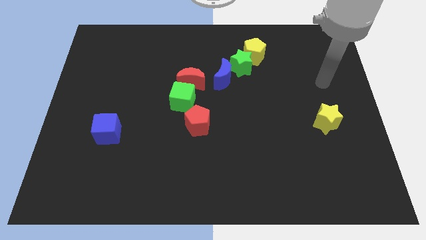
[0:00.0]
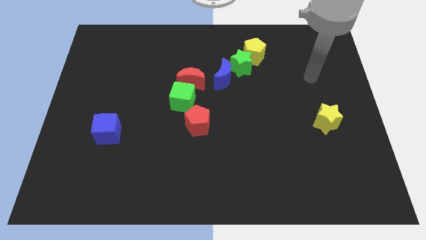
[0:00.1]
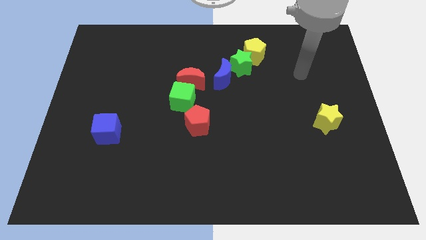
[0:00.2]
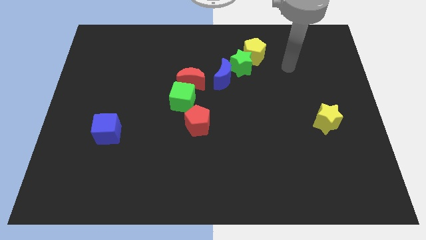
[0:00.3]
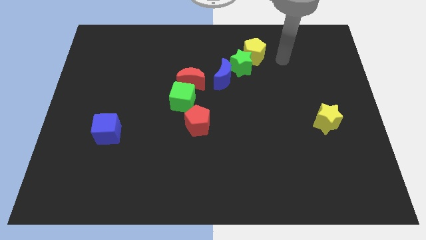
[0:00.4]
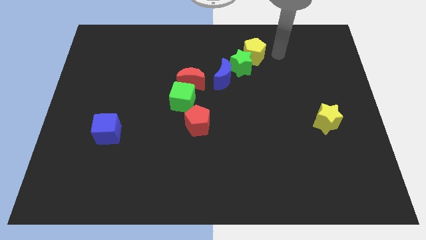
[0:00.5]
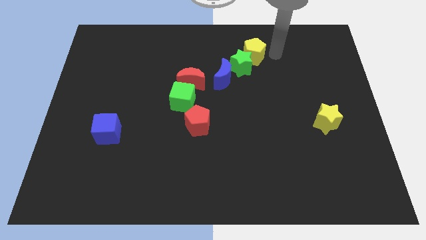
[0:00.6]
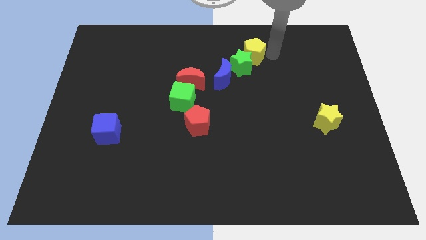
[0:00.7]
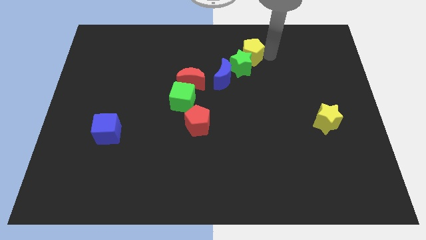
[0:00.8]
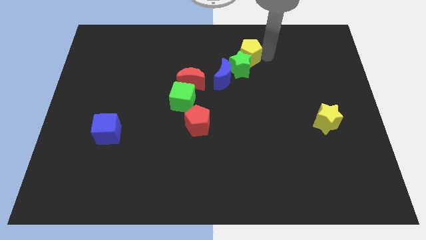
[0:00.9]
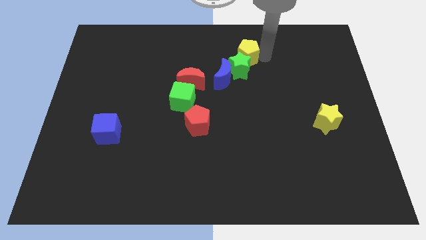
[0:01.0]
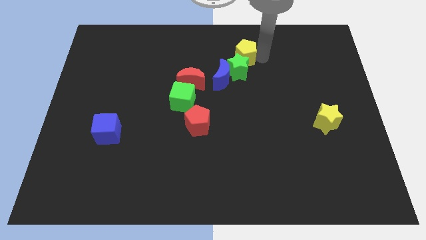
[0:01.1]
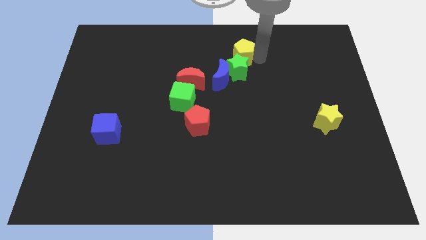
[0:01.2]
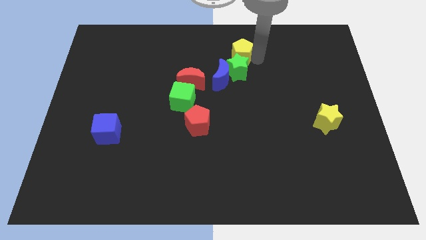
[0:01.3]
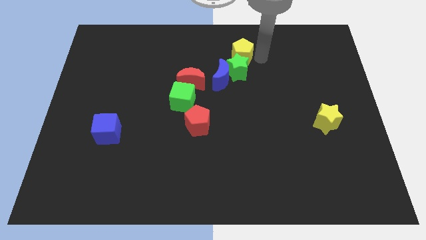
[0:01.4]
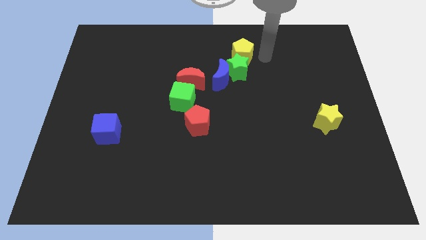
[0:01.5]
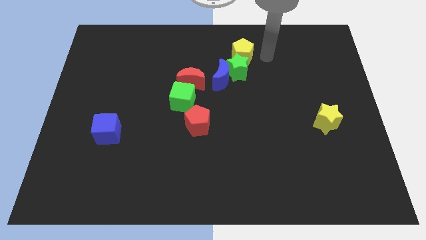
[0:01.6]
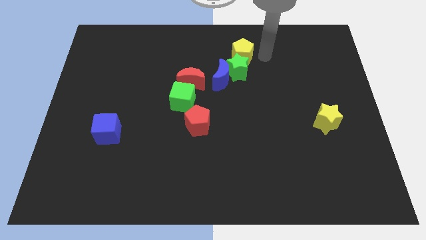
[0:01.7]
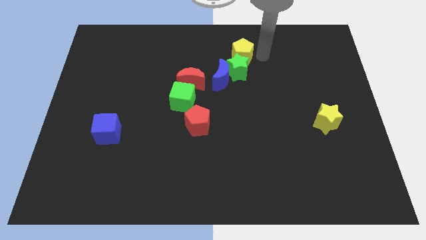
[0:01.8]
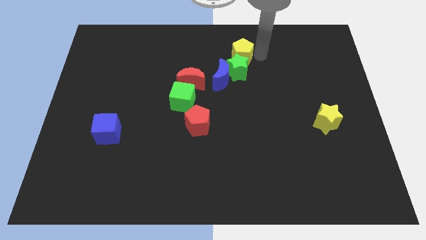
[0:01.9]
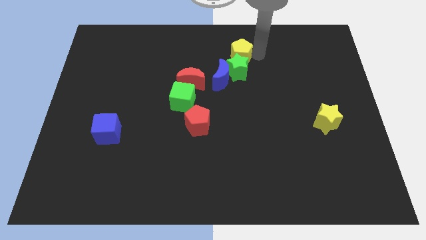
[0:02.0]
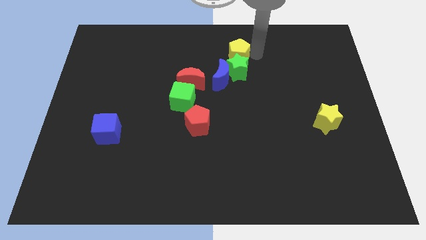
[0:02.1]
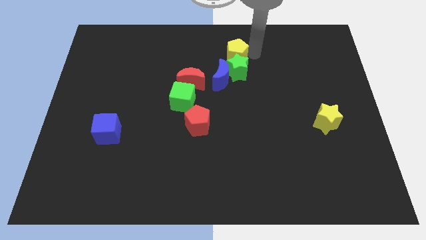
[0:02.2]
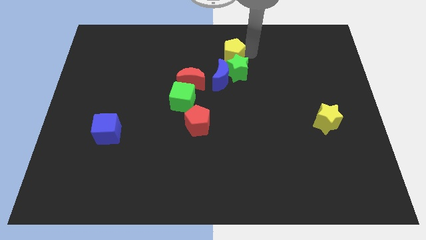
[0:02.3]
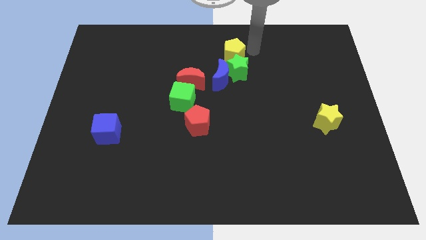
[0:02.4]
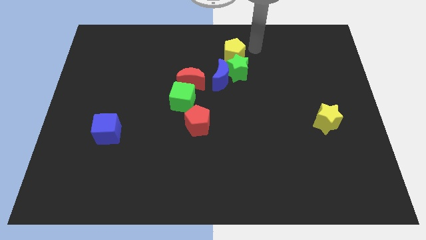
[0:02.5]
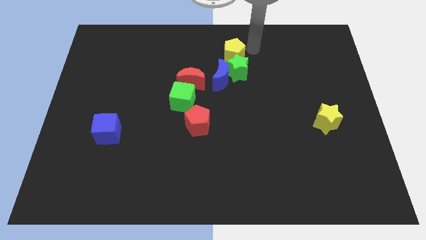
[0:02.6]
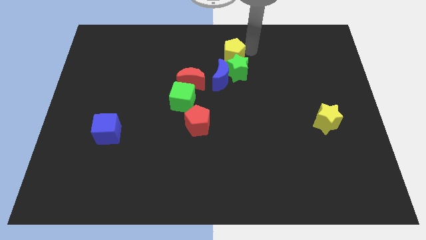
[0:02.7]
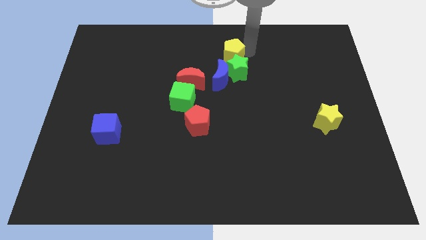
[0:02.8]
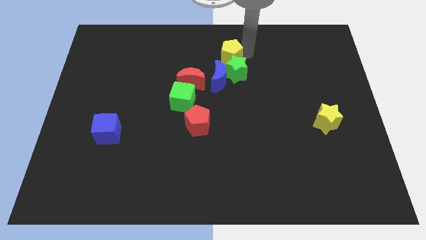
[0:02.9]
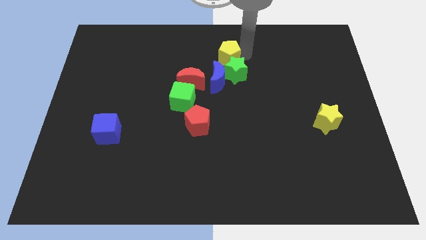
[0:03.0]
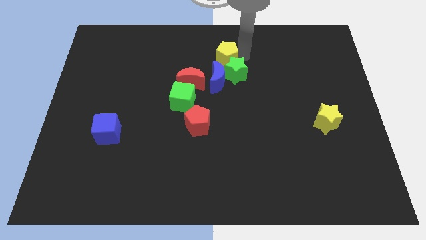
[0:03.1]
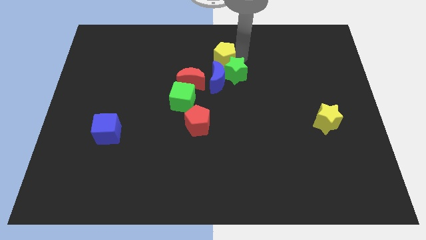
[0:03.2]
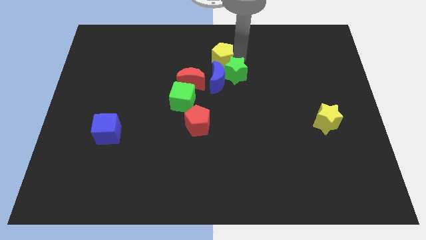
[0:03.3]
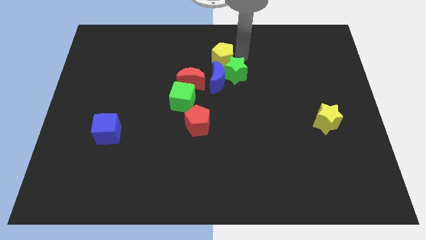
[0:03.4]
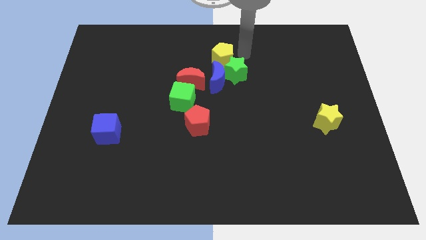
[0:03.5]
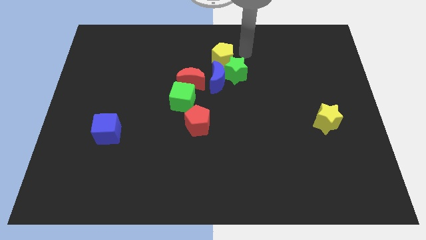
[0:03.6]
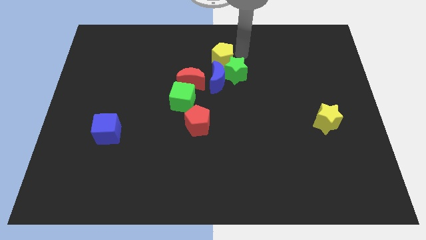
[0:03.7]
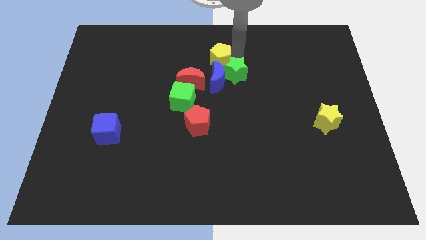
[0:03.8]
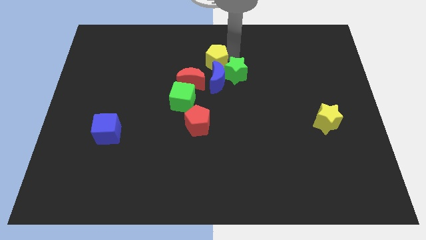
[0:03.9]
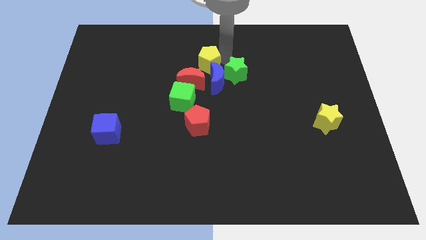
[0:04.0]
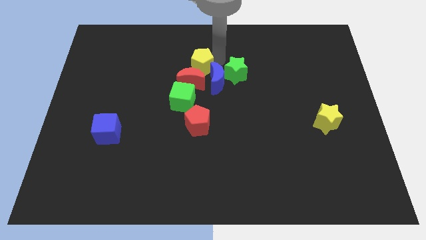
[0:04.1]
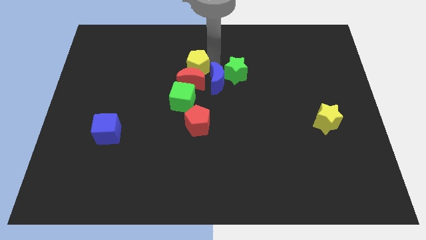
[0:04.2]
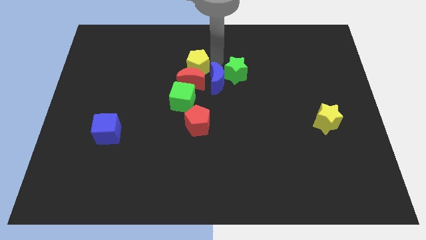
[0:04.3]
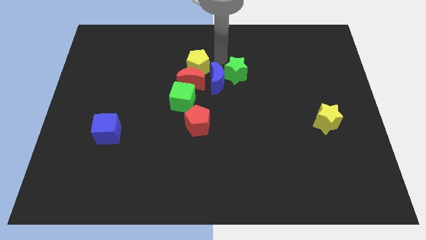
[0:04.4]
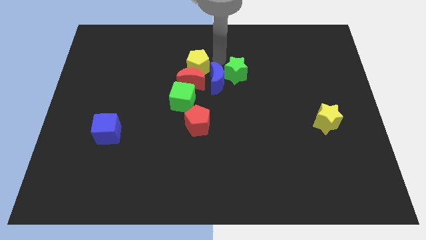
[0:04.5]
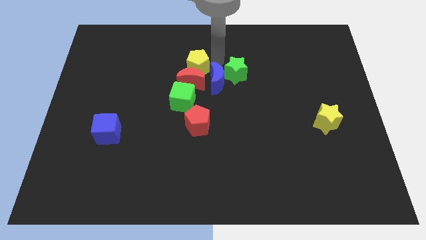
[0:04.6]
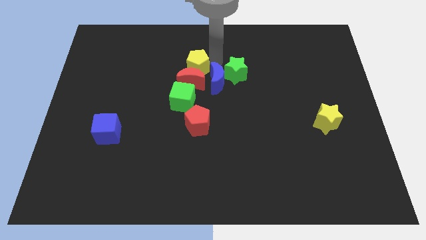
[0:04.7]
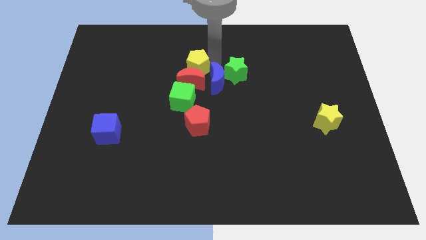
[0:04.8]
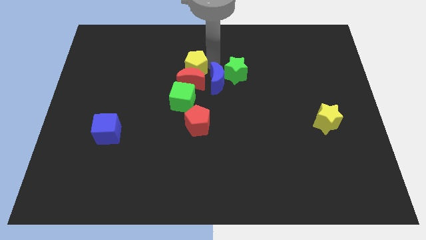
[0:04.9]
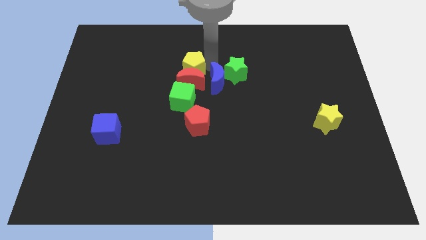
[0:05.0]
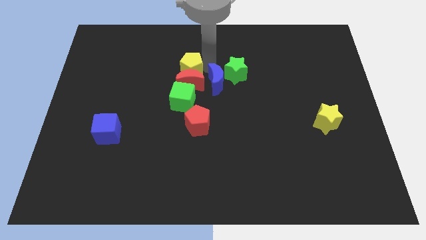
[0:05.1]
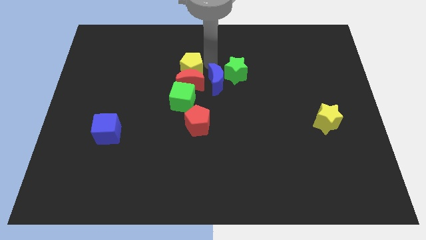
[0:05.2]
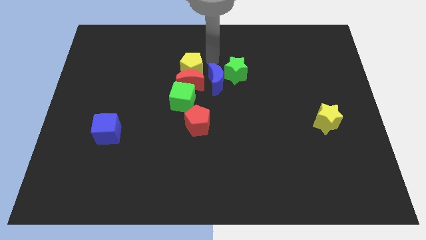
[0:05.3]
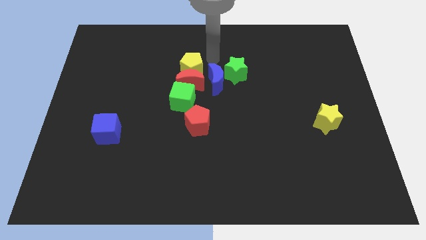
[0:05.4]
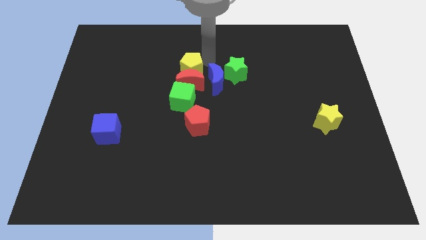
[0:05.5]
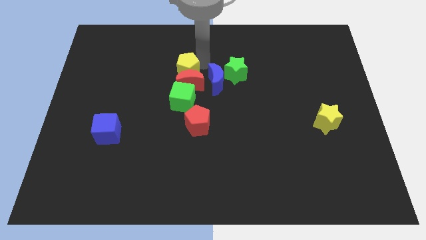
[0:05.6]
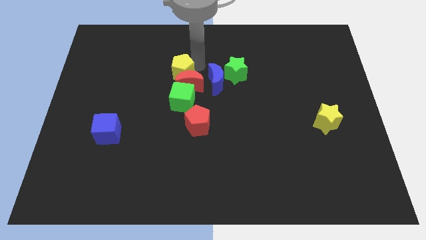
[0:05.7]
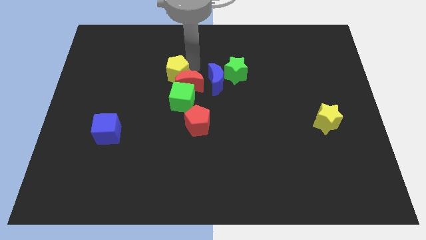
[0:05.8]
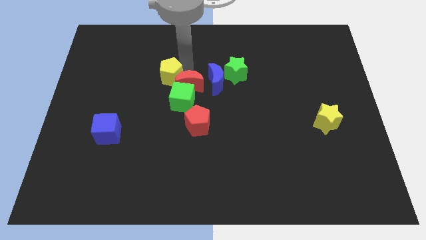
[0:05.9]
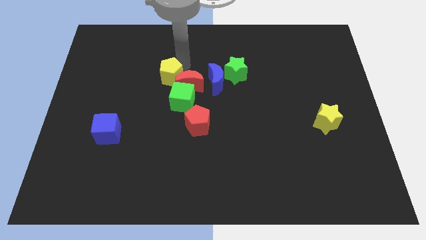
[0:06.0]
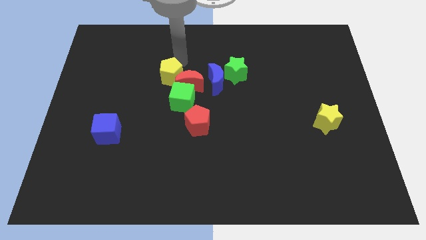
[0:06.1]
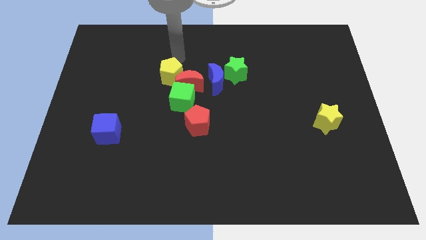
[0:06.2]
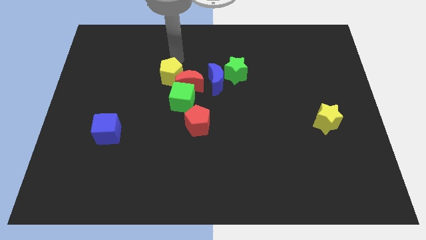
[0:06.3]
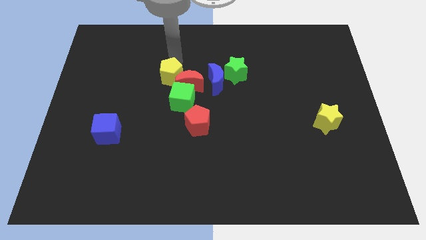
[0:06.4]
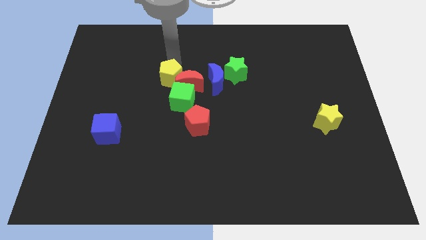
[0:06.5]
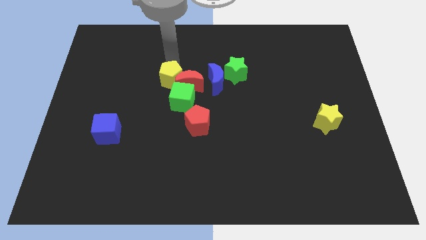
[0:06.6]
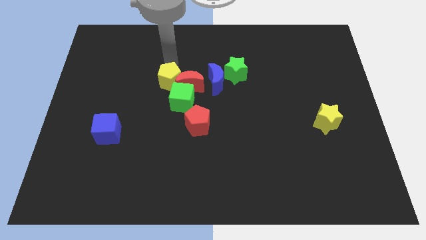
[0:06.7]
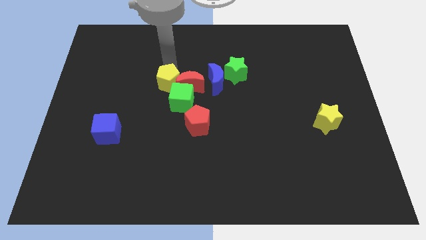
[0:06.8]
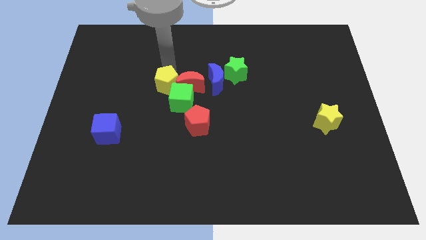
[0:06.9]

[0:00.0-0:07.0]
push the yellow pentagon diagonally downwards and to the left

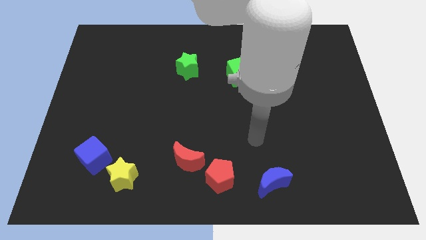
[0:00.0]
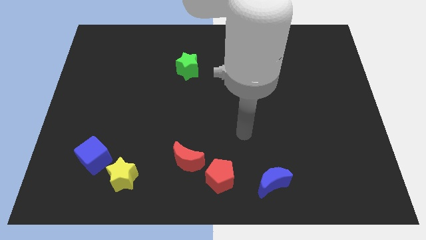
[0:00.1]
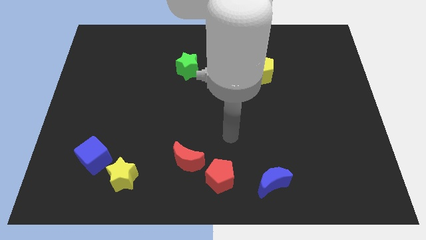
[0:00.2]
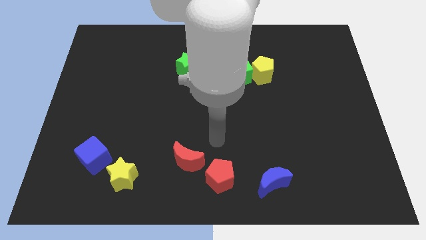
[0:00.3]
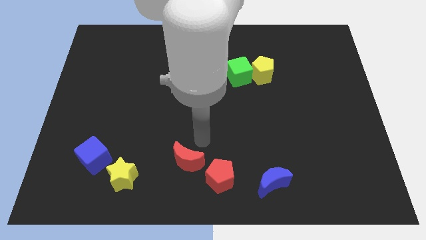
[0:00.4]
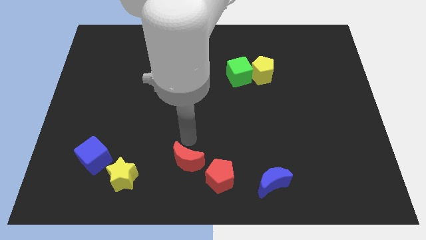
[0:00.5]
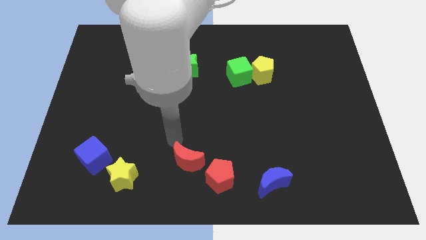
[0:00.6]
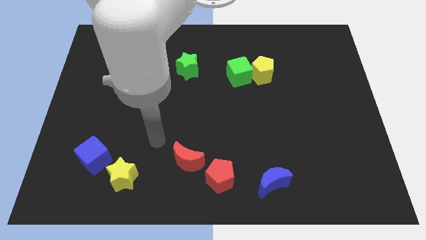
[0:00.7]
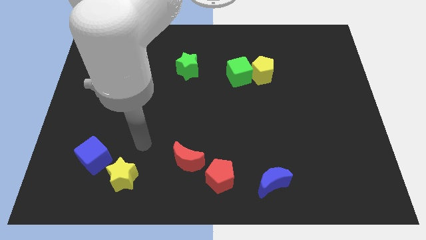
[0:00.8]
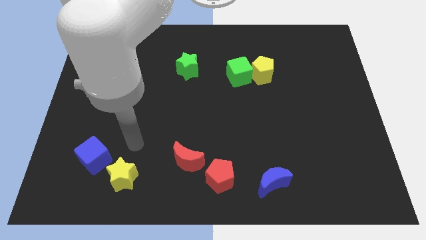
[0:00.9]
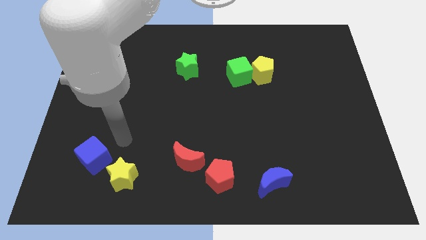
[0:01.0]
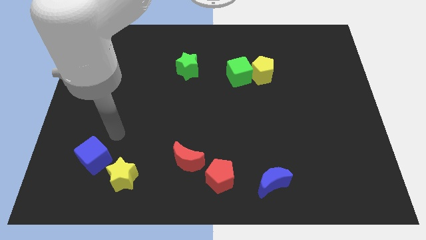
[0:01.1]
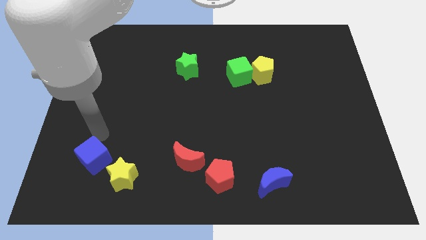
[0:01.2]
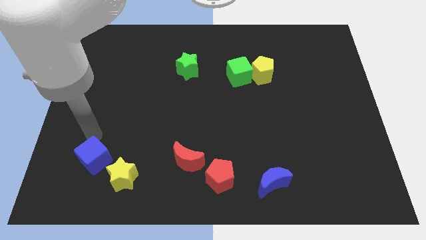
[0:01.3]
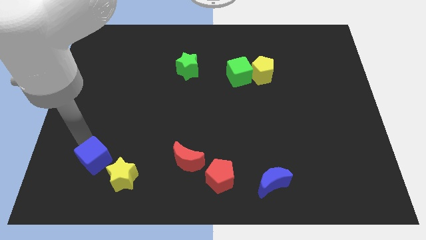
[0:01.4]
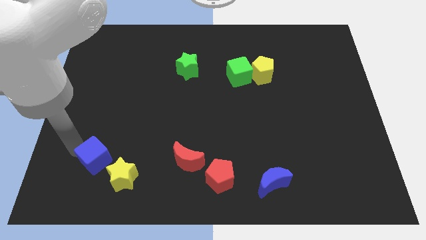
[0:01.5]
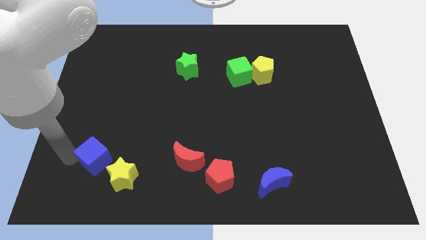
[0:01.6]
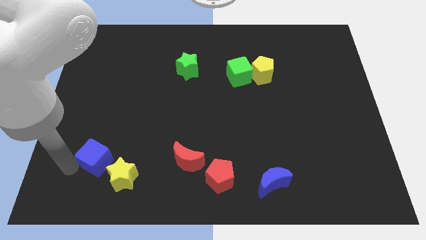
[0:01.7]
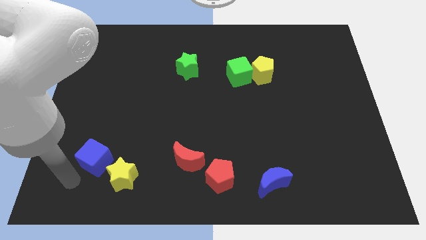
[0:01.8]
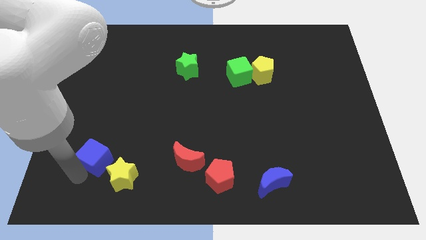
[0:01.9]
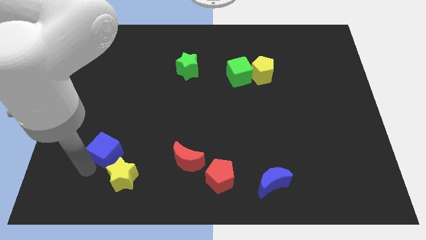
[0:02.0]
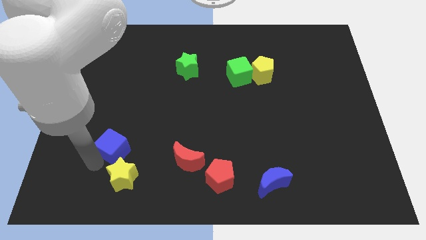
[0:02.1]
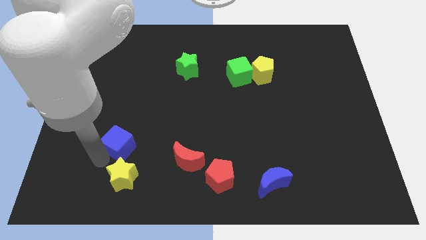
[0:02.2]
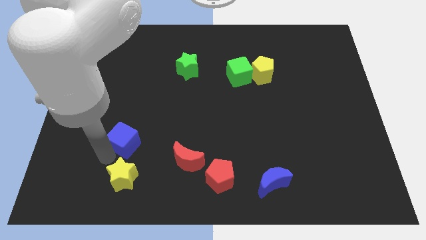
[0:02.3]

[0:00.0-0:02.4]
push the blue cube slightly up and right
